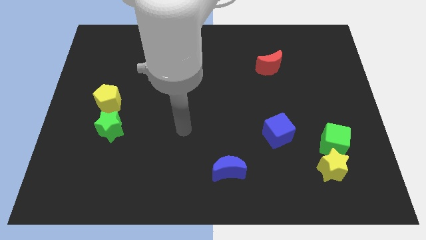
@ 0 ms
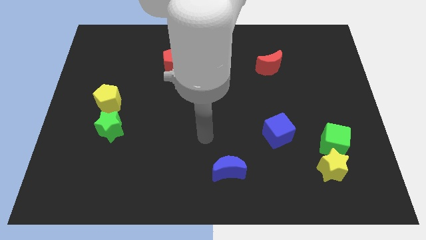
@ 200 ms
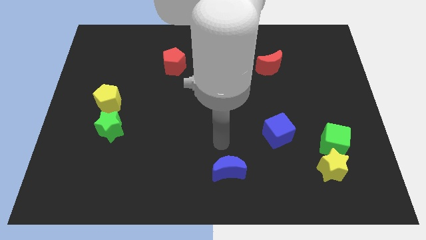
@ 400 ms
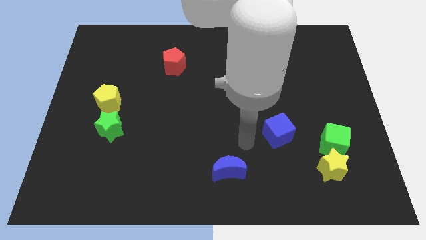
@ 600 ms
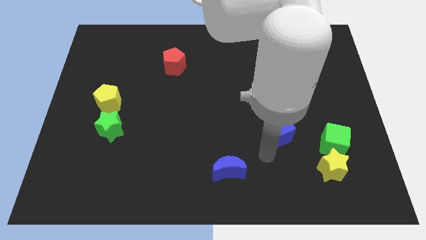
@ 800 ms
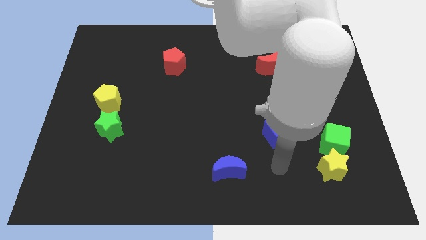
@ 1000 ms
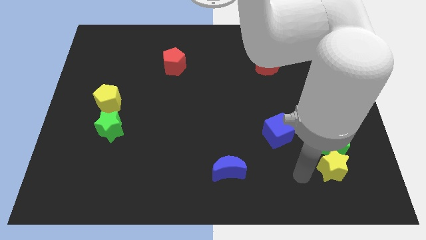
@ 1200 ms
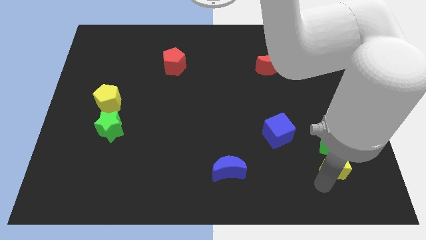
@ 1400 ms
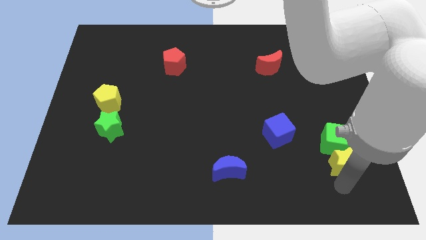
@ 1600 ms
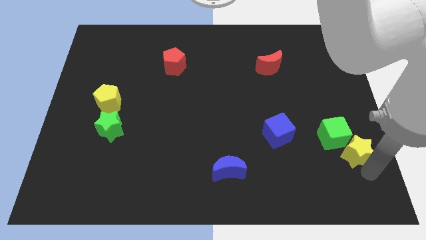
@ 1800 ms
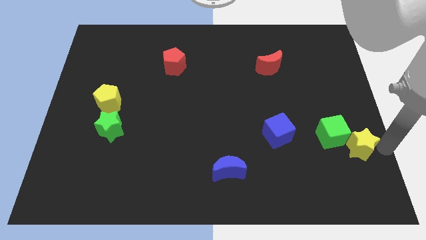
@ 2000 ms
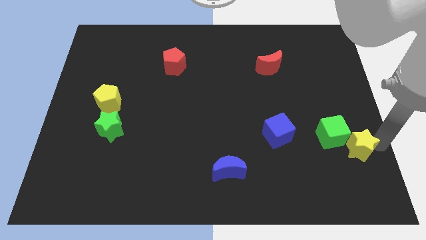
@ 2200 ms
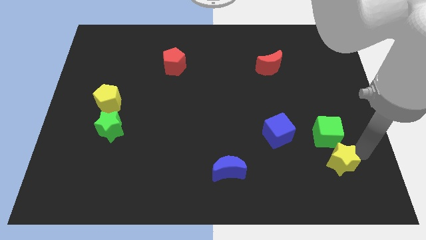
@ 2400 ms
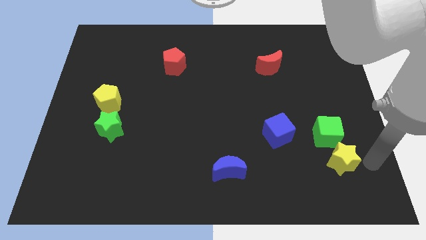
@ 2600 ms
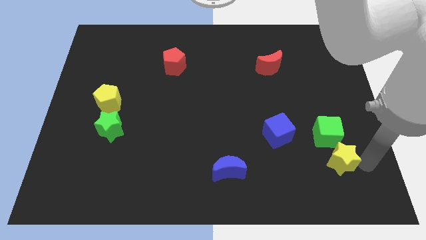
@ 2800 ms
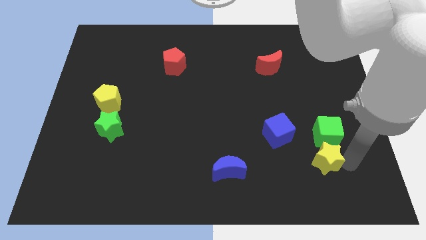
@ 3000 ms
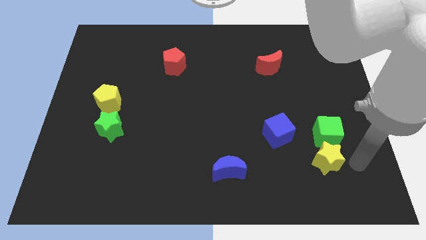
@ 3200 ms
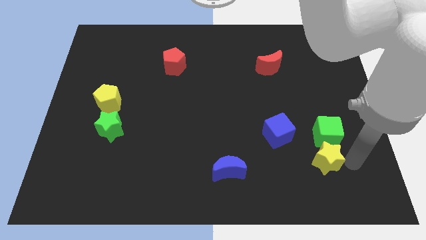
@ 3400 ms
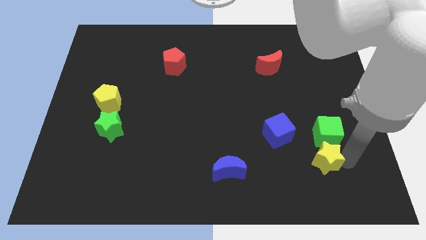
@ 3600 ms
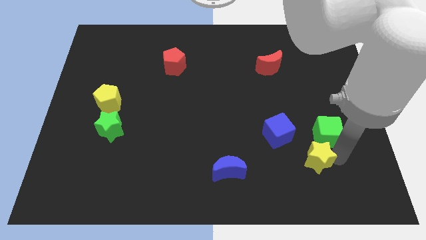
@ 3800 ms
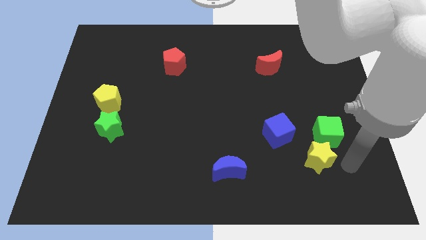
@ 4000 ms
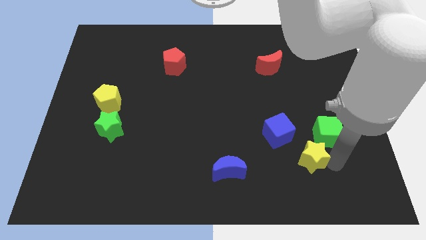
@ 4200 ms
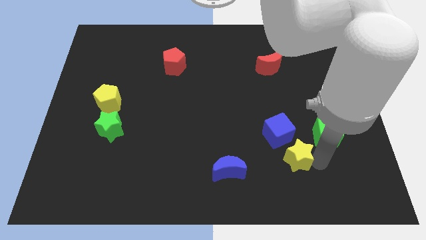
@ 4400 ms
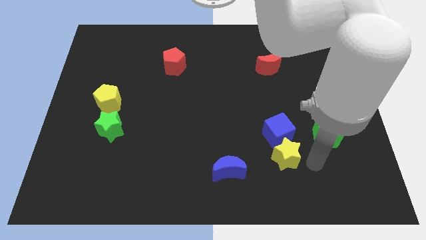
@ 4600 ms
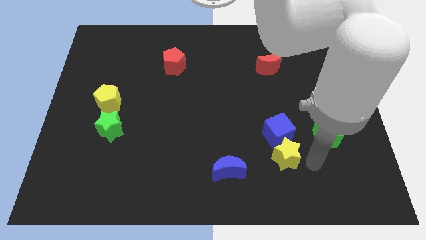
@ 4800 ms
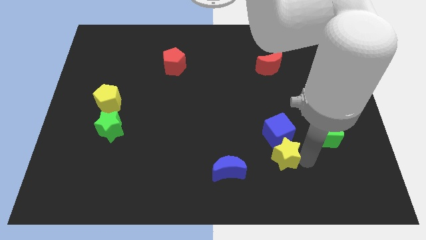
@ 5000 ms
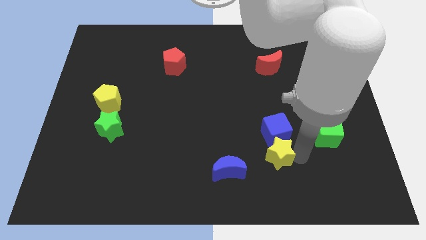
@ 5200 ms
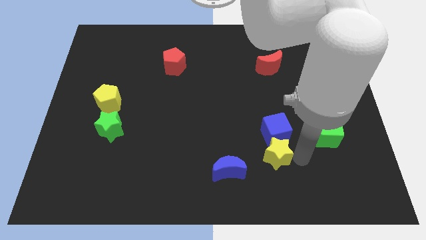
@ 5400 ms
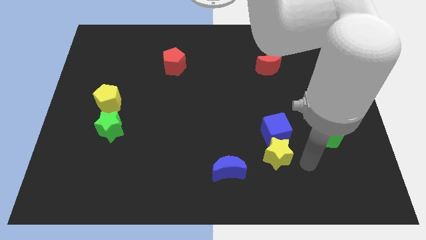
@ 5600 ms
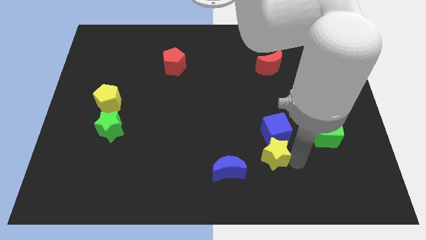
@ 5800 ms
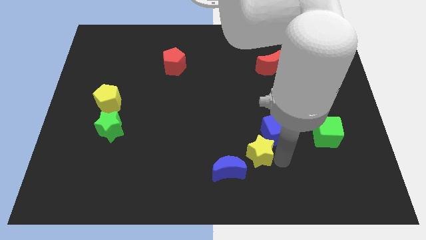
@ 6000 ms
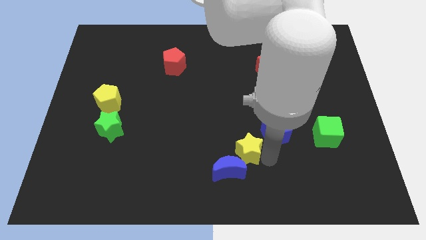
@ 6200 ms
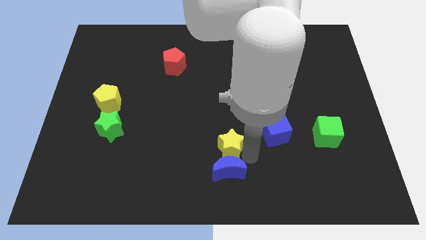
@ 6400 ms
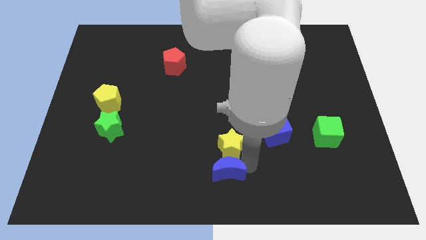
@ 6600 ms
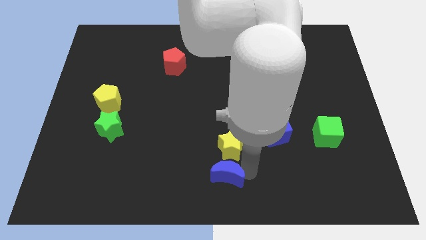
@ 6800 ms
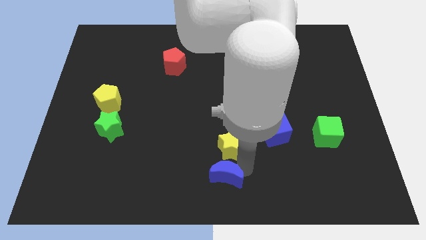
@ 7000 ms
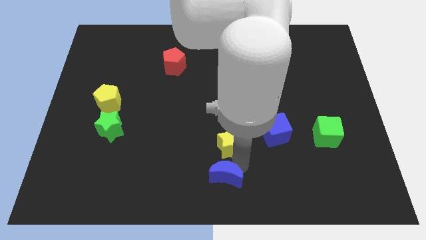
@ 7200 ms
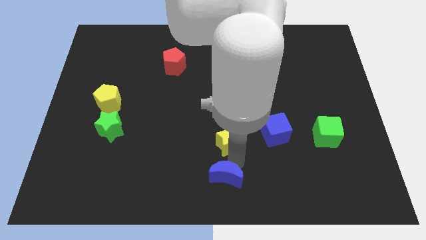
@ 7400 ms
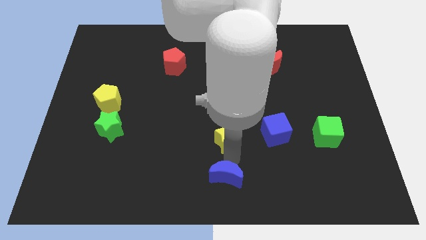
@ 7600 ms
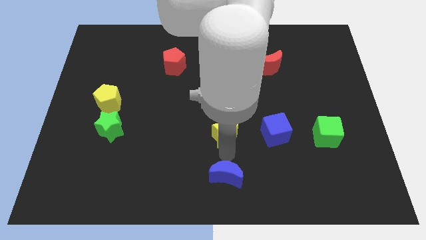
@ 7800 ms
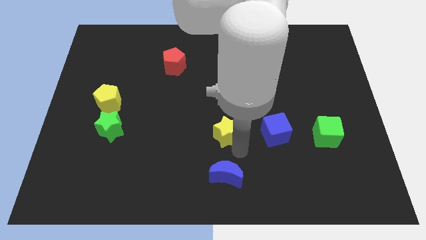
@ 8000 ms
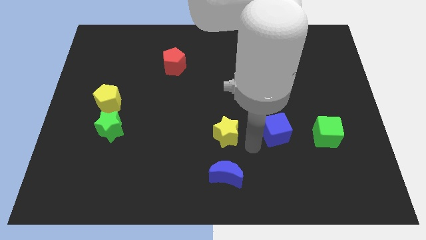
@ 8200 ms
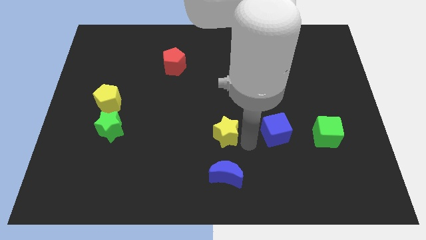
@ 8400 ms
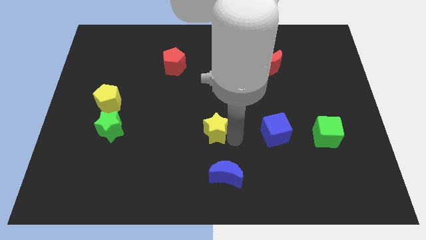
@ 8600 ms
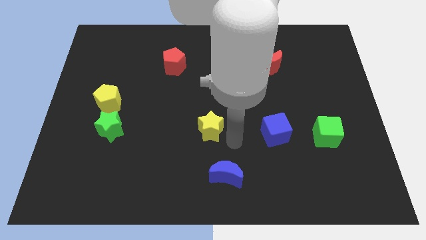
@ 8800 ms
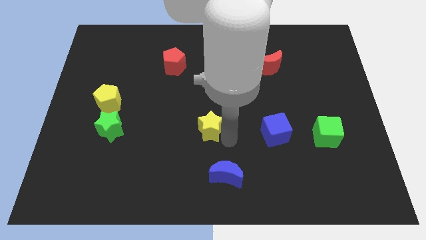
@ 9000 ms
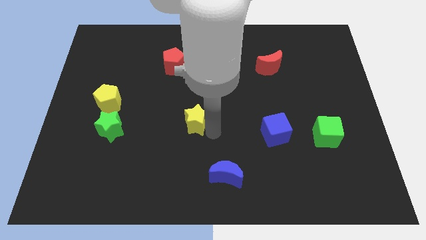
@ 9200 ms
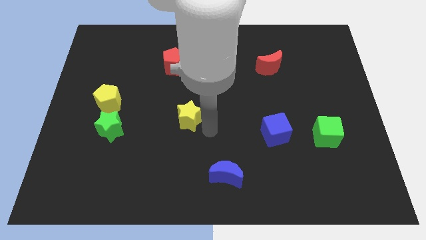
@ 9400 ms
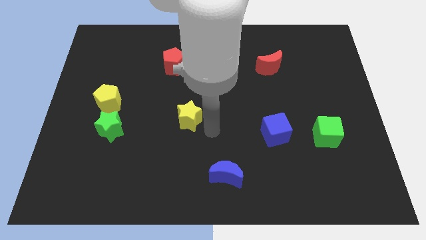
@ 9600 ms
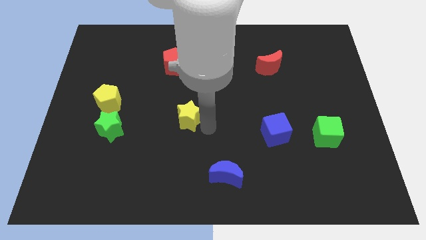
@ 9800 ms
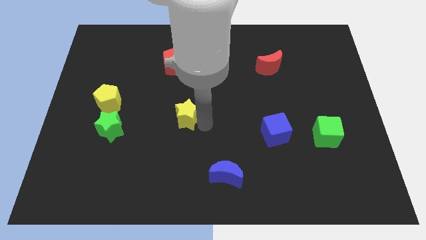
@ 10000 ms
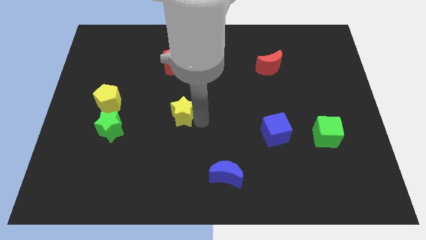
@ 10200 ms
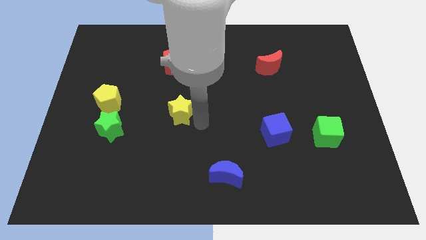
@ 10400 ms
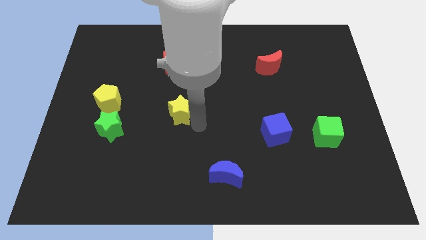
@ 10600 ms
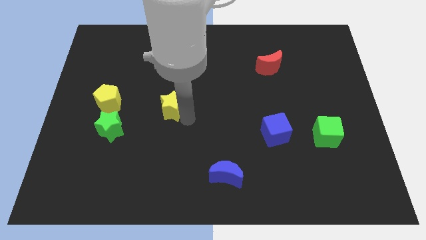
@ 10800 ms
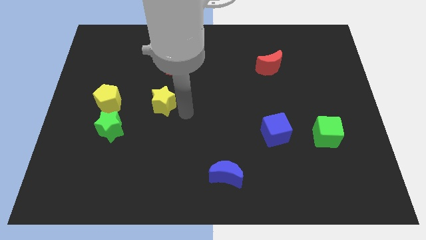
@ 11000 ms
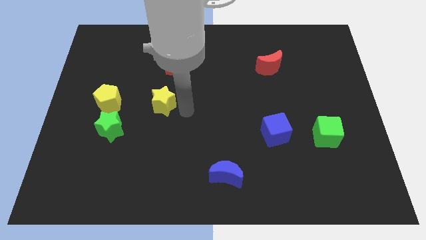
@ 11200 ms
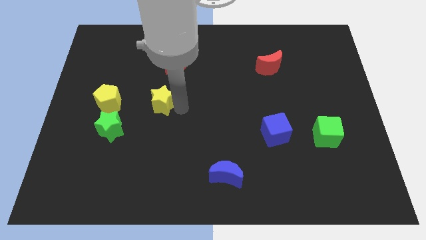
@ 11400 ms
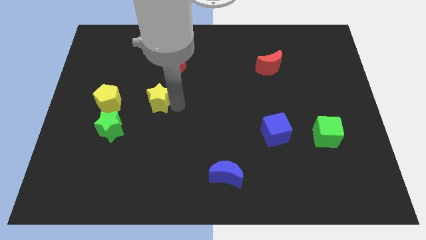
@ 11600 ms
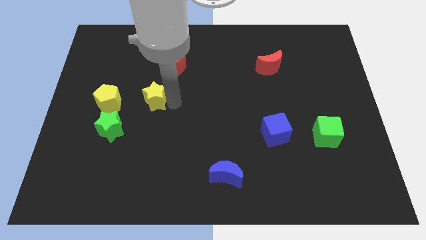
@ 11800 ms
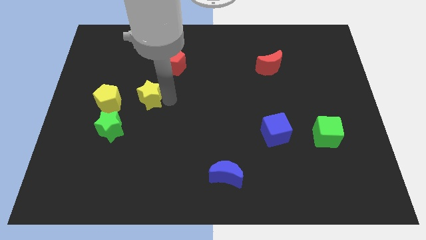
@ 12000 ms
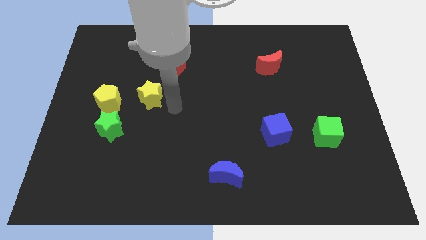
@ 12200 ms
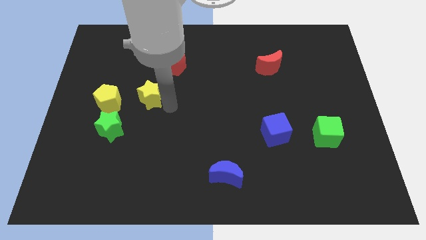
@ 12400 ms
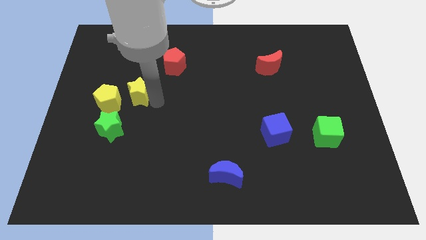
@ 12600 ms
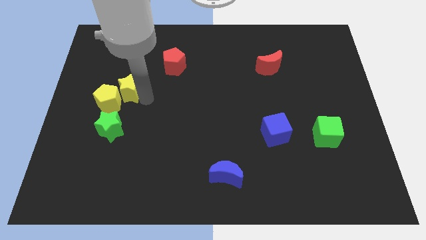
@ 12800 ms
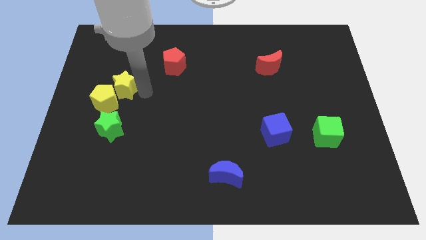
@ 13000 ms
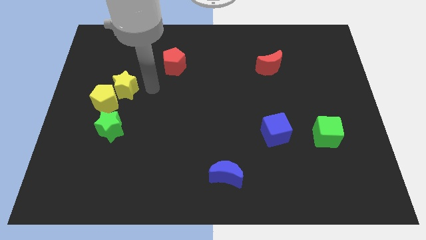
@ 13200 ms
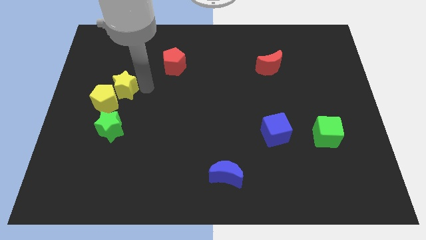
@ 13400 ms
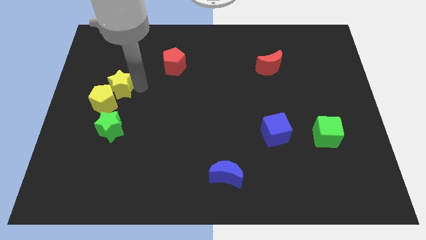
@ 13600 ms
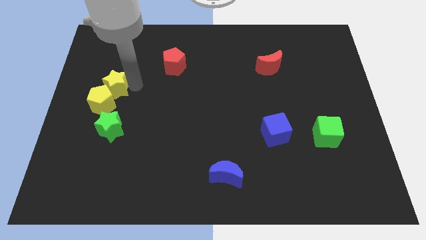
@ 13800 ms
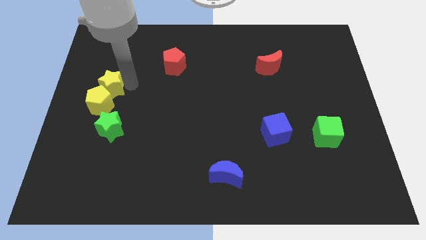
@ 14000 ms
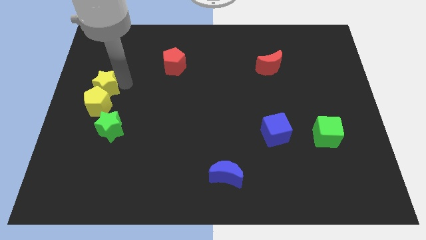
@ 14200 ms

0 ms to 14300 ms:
slide the yellow star to the left side of the board
